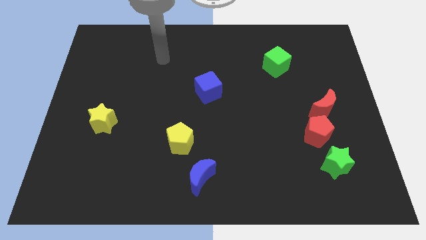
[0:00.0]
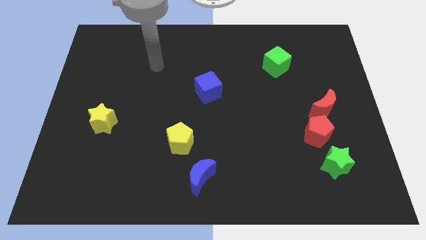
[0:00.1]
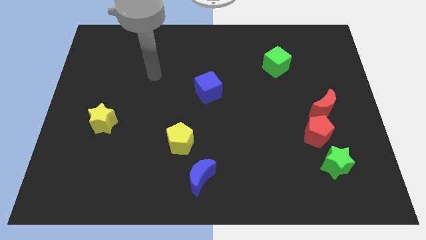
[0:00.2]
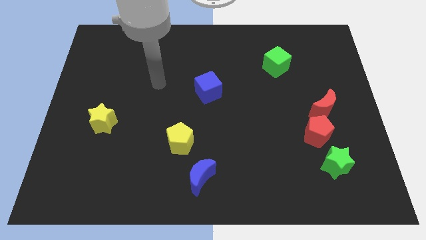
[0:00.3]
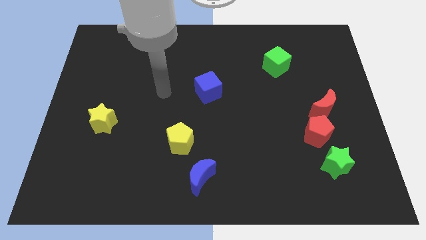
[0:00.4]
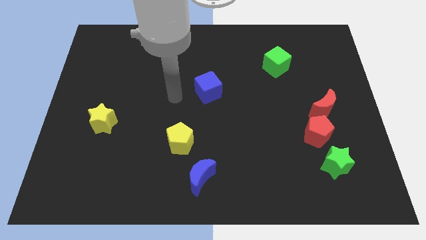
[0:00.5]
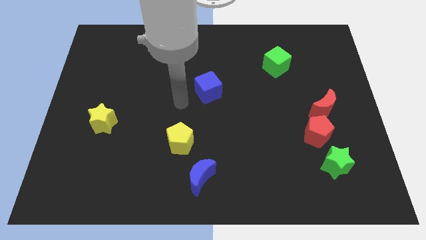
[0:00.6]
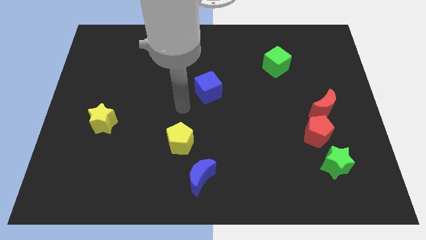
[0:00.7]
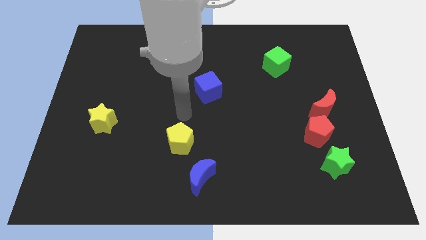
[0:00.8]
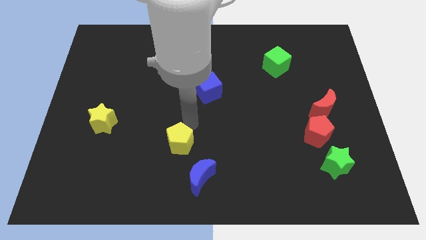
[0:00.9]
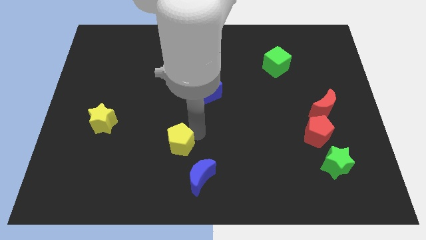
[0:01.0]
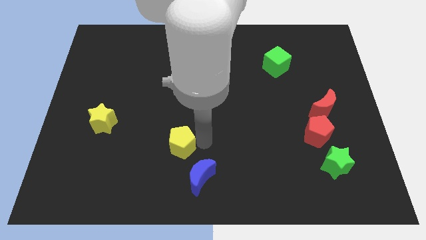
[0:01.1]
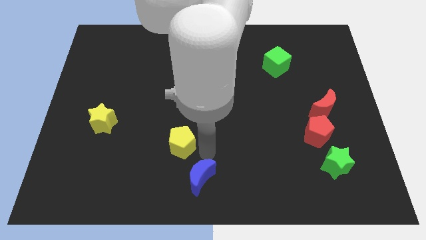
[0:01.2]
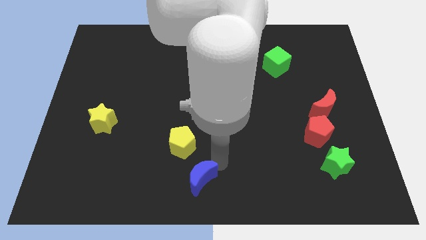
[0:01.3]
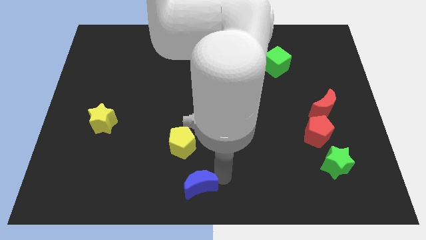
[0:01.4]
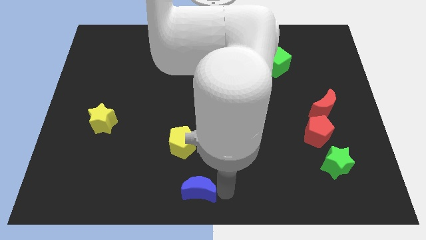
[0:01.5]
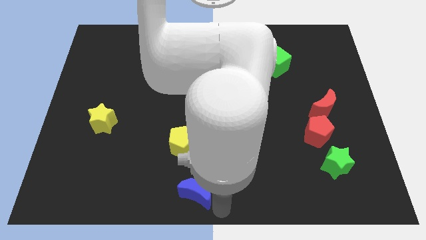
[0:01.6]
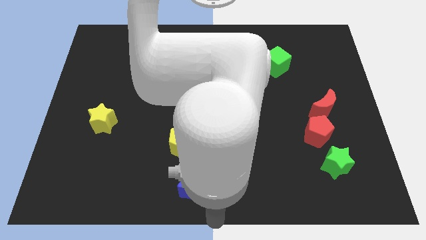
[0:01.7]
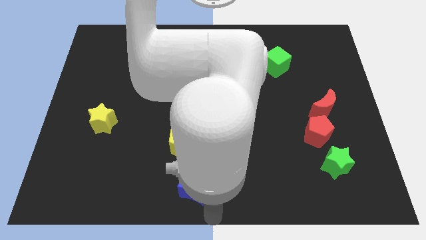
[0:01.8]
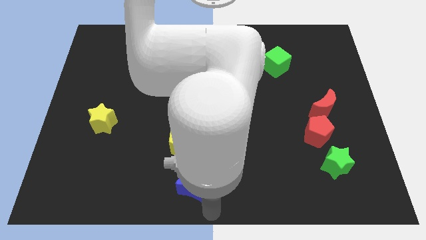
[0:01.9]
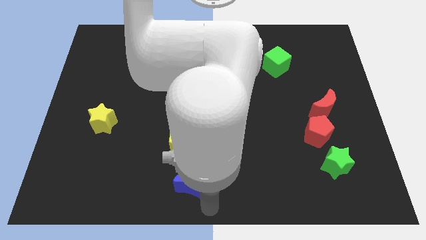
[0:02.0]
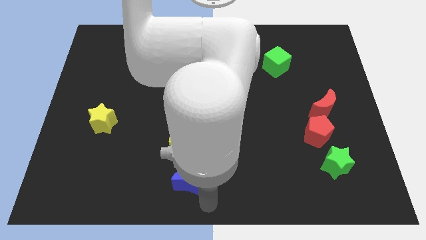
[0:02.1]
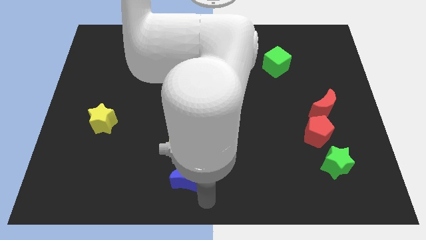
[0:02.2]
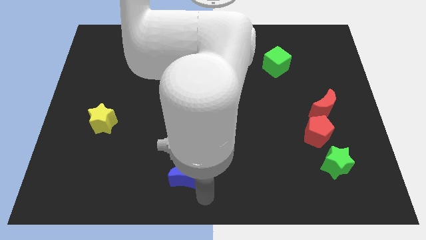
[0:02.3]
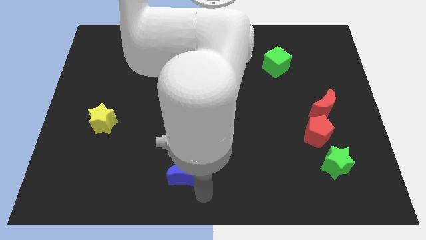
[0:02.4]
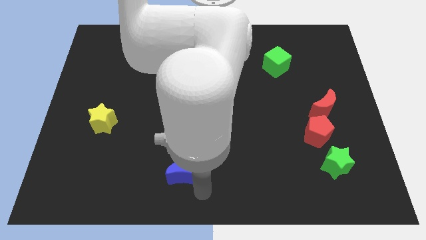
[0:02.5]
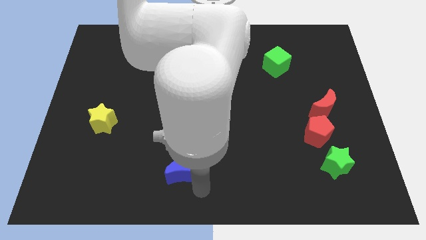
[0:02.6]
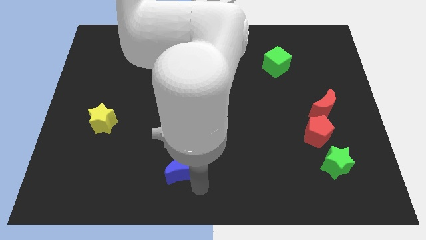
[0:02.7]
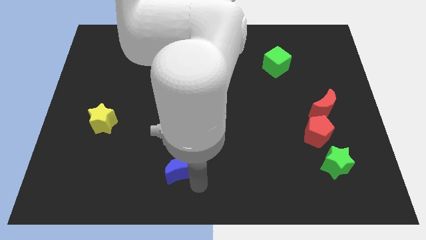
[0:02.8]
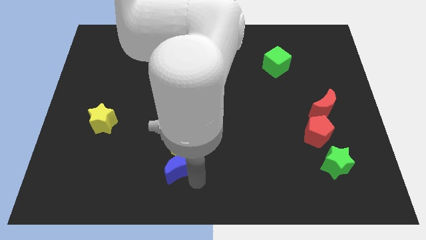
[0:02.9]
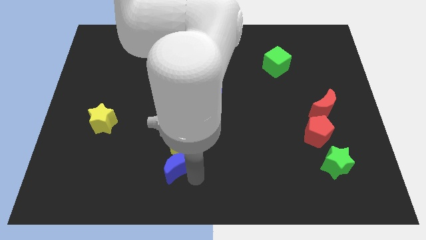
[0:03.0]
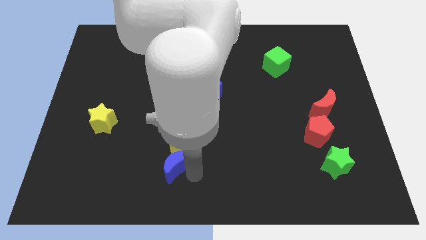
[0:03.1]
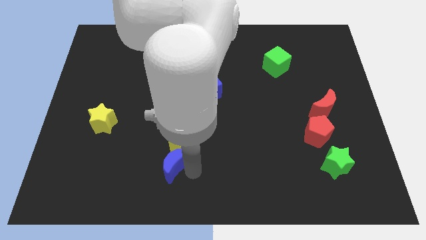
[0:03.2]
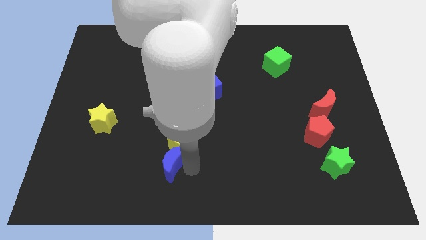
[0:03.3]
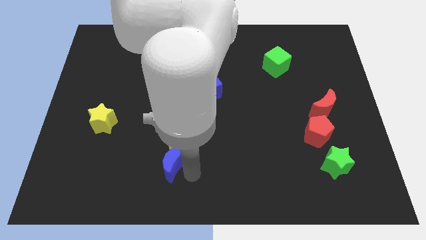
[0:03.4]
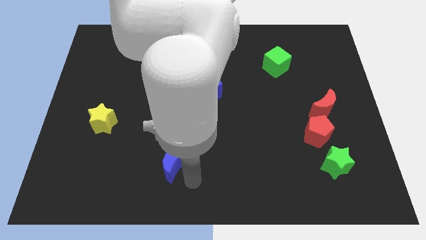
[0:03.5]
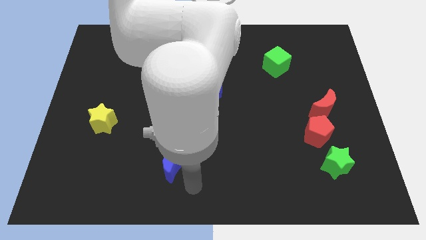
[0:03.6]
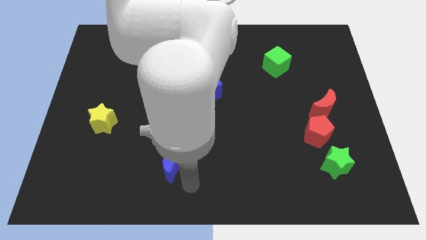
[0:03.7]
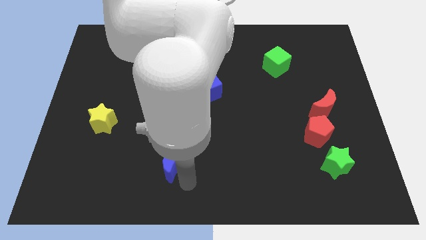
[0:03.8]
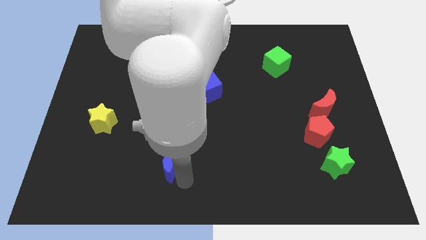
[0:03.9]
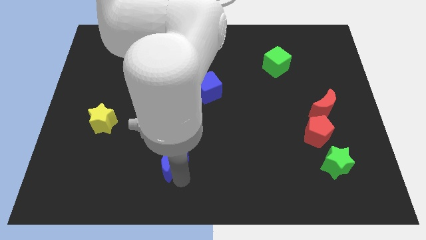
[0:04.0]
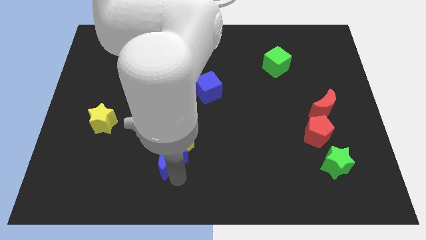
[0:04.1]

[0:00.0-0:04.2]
slightly push the blue moon diagonally up and to the left

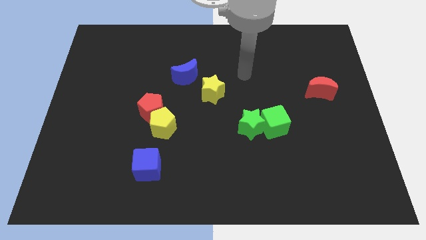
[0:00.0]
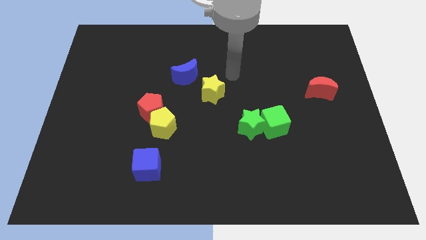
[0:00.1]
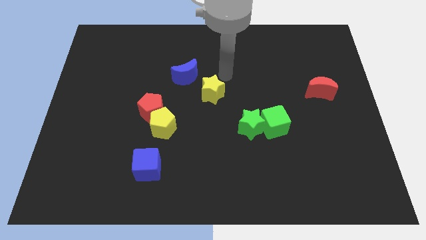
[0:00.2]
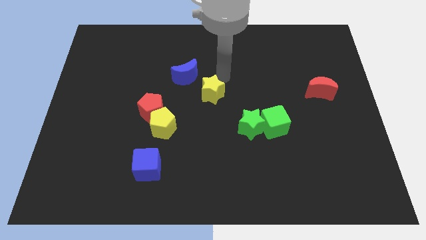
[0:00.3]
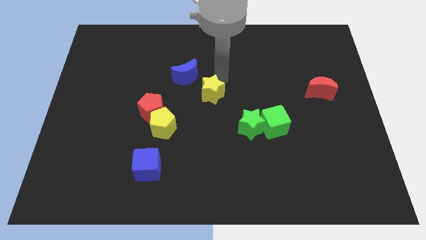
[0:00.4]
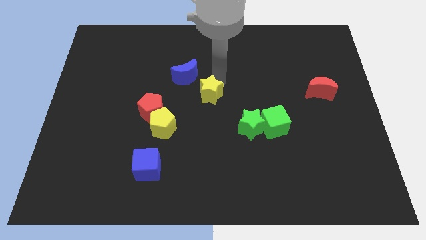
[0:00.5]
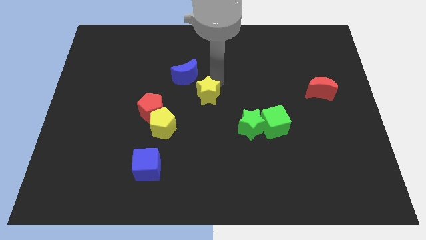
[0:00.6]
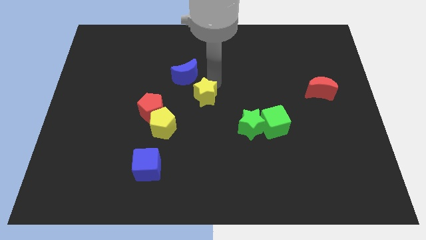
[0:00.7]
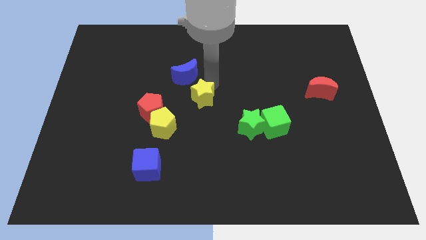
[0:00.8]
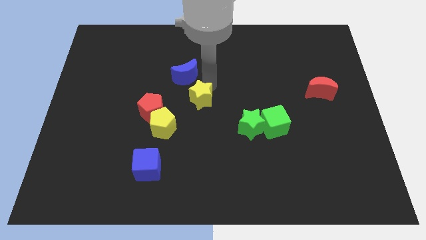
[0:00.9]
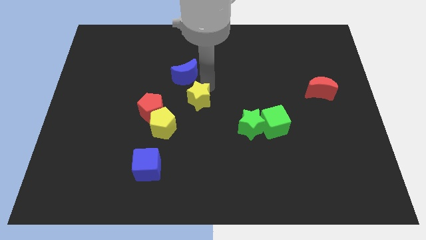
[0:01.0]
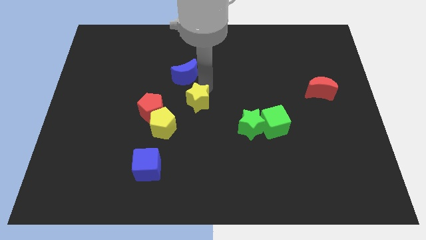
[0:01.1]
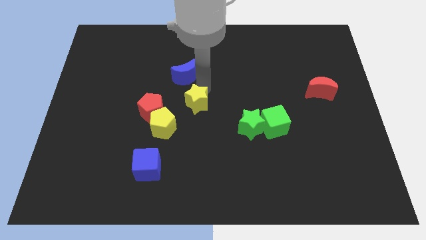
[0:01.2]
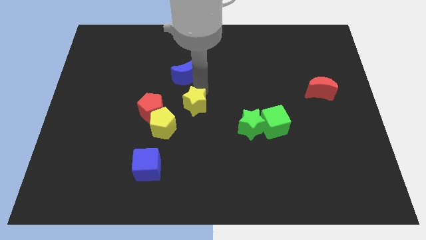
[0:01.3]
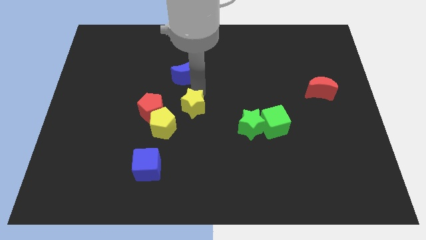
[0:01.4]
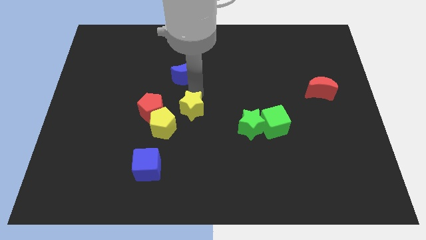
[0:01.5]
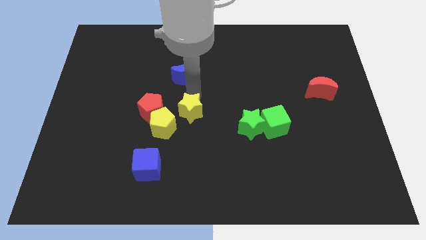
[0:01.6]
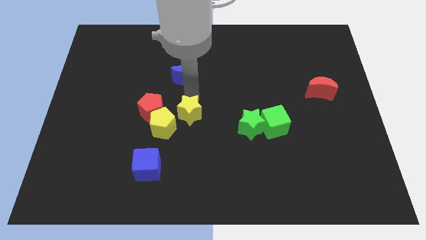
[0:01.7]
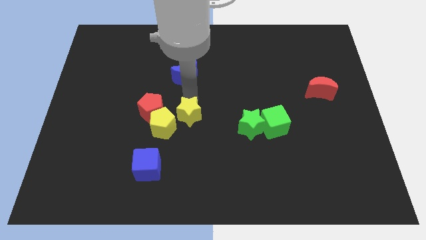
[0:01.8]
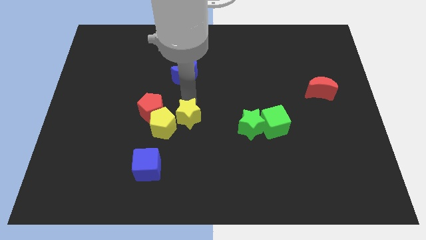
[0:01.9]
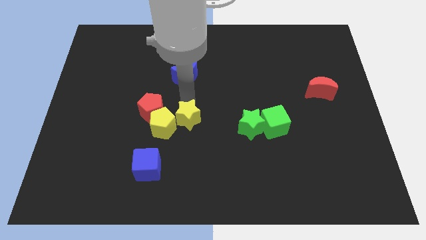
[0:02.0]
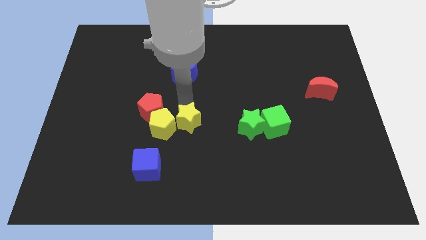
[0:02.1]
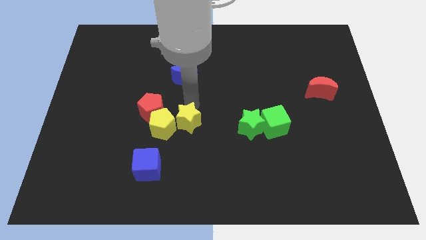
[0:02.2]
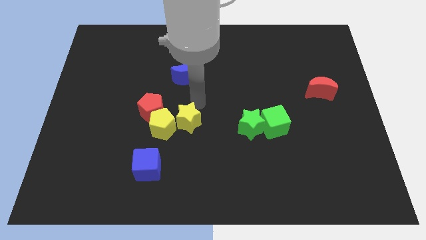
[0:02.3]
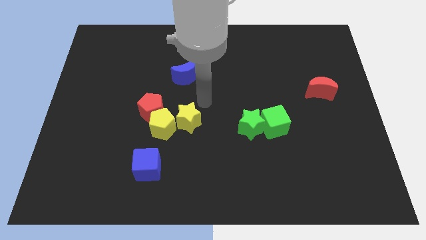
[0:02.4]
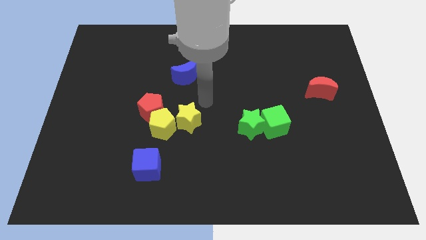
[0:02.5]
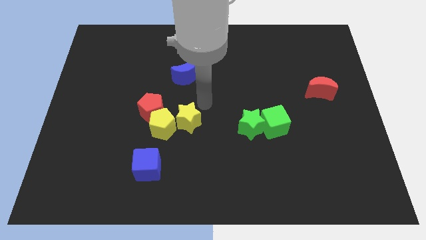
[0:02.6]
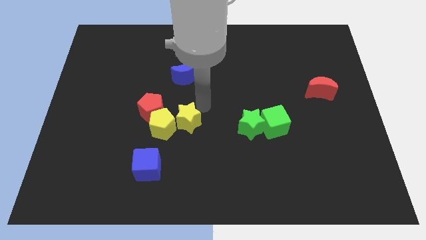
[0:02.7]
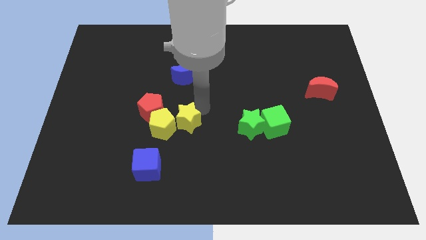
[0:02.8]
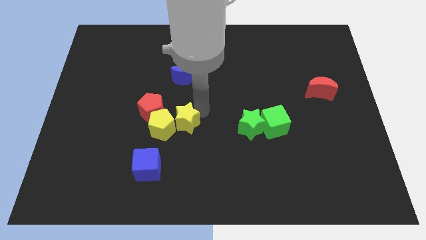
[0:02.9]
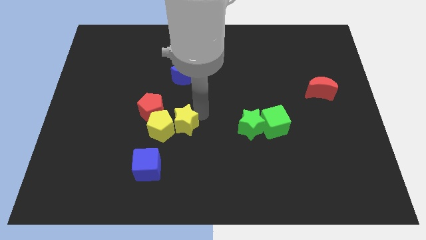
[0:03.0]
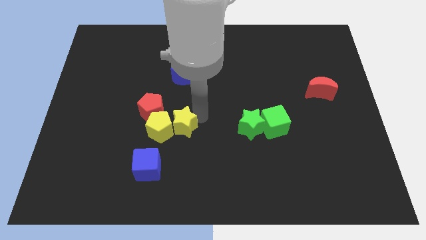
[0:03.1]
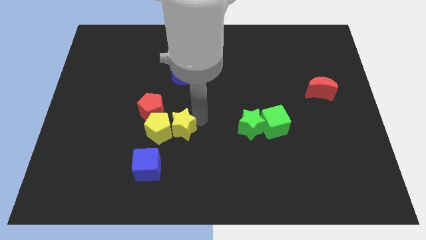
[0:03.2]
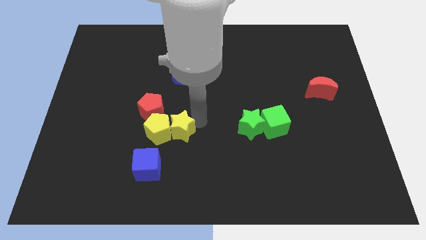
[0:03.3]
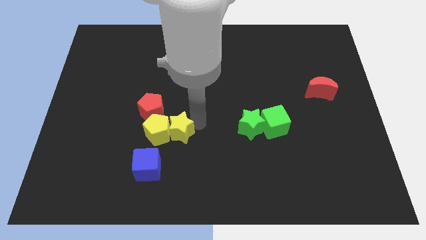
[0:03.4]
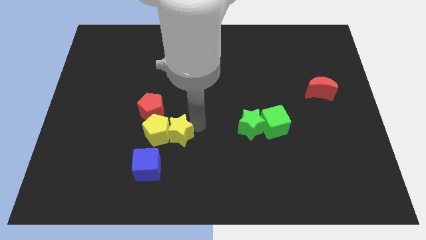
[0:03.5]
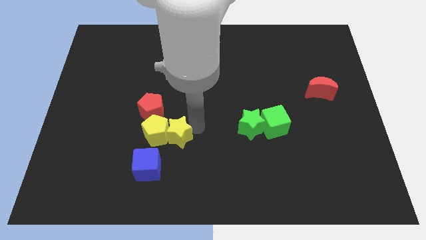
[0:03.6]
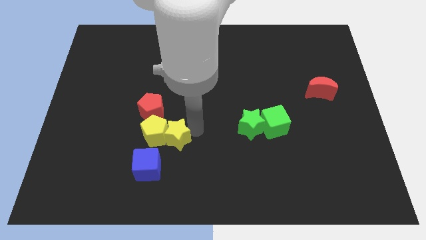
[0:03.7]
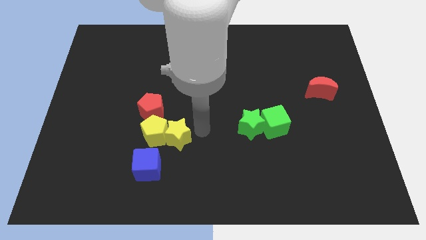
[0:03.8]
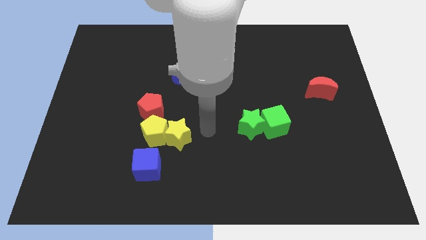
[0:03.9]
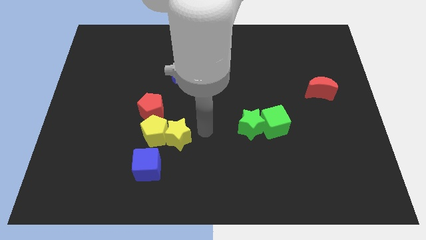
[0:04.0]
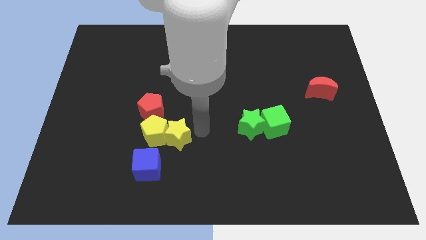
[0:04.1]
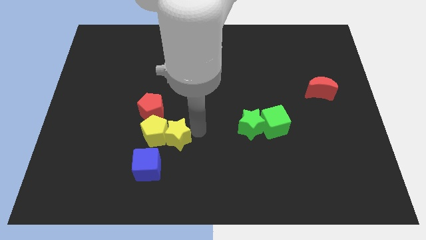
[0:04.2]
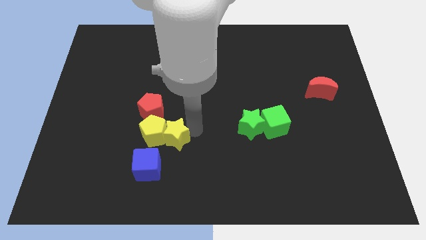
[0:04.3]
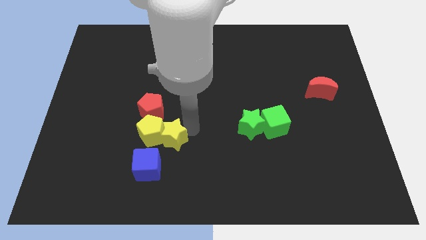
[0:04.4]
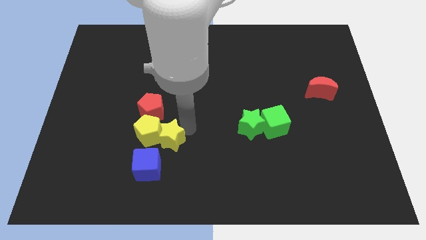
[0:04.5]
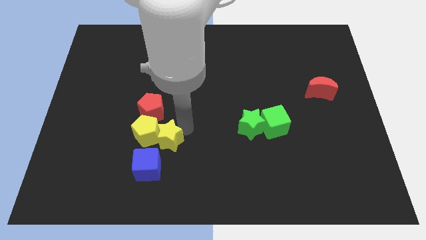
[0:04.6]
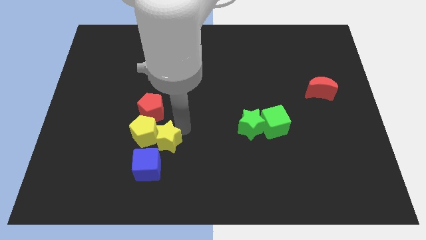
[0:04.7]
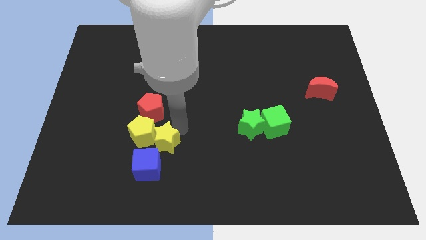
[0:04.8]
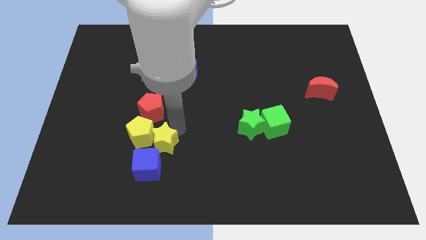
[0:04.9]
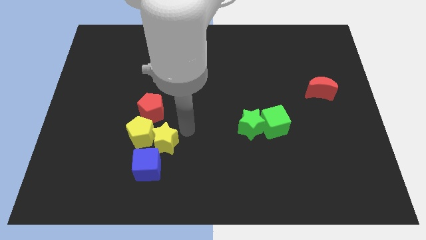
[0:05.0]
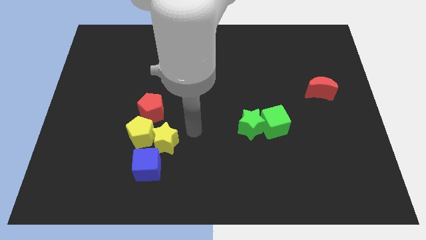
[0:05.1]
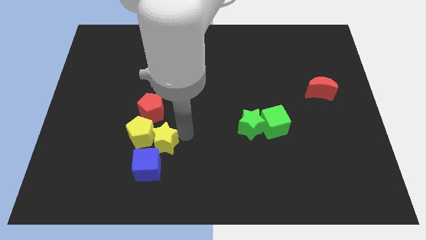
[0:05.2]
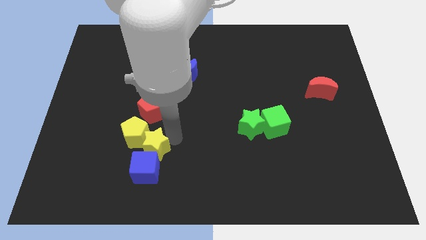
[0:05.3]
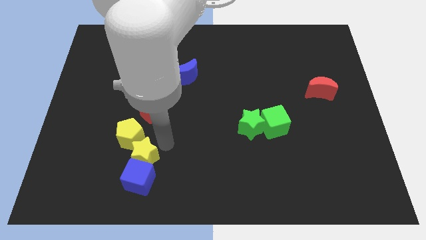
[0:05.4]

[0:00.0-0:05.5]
push the yellow star down and left diagonally
